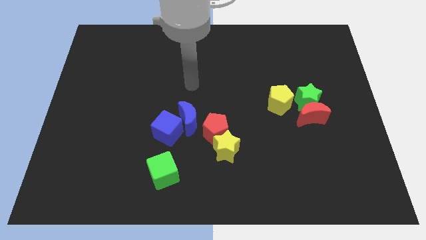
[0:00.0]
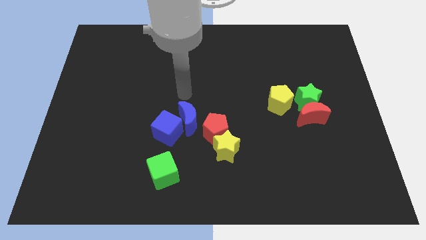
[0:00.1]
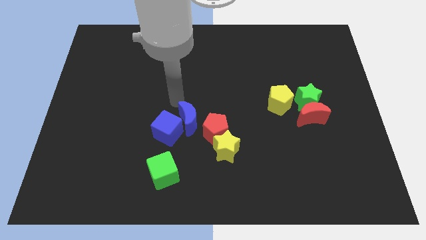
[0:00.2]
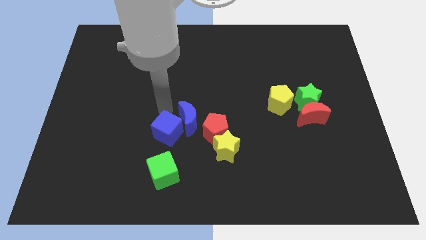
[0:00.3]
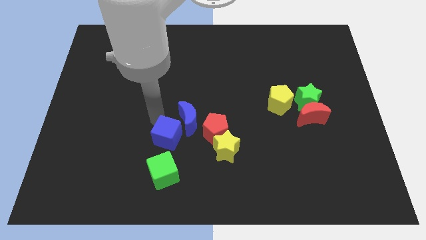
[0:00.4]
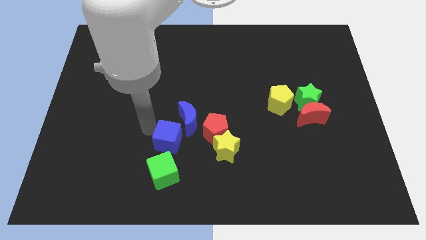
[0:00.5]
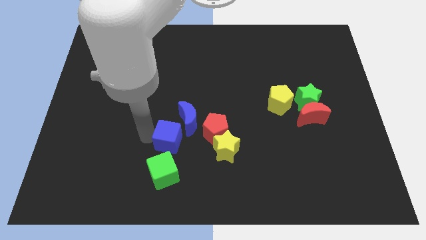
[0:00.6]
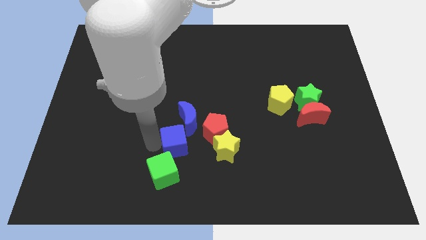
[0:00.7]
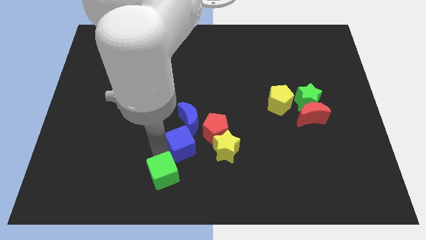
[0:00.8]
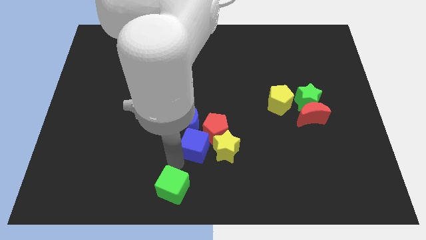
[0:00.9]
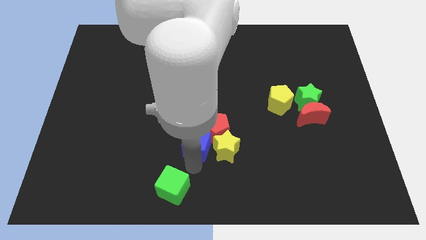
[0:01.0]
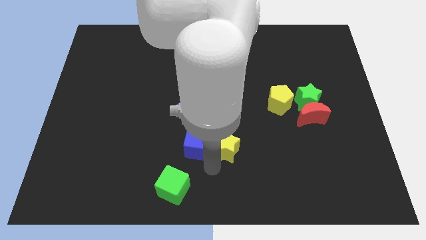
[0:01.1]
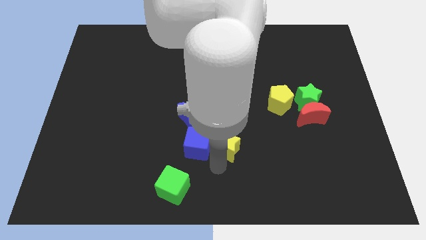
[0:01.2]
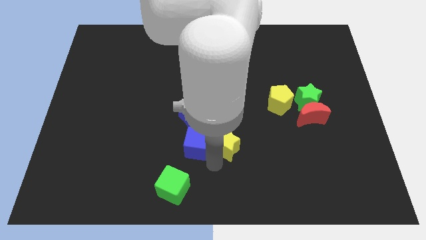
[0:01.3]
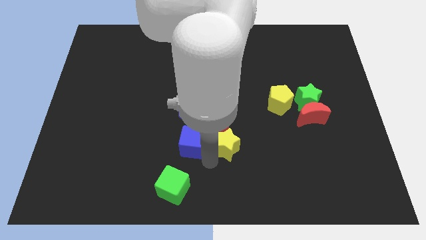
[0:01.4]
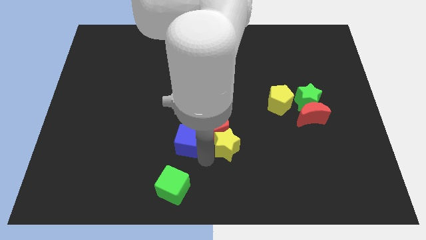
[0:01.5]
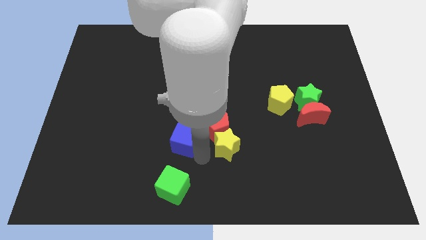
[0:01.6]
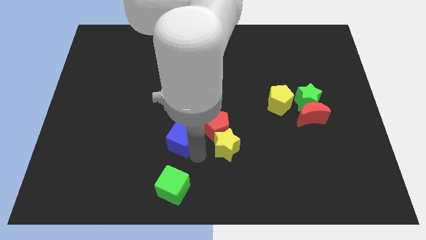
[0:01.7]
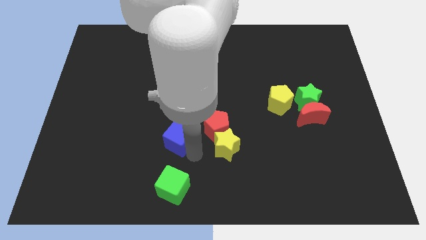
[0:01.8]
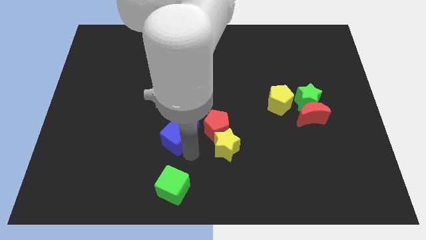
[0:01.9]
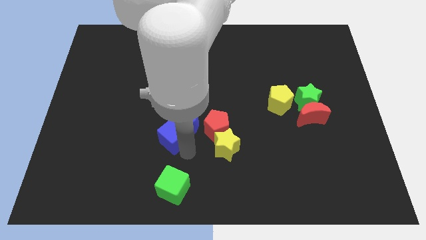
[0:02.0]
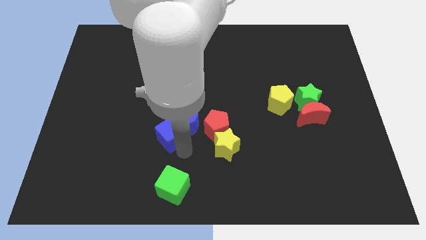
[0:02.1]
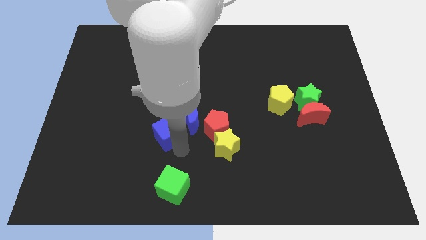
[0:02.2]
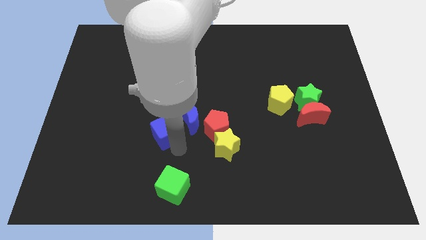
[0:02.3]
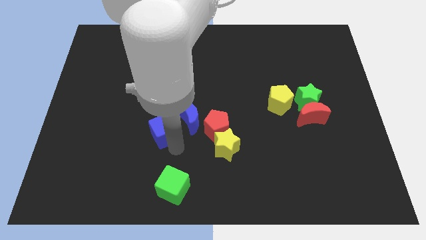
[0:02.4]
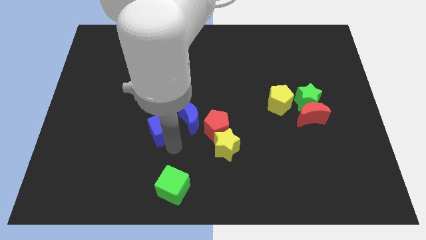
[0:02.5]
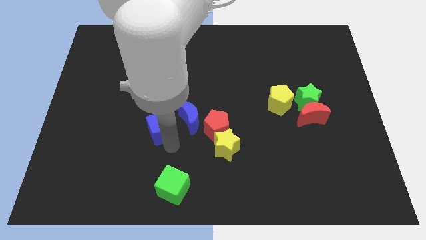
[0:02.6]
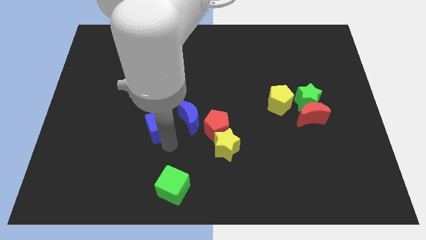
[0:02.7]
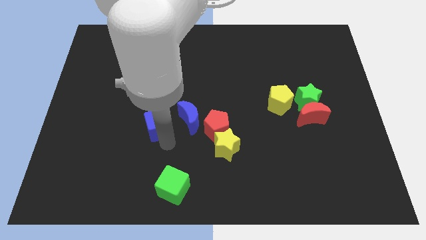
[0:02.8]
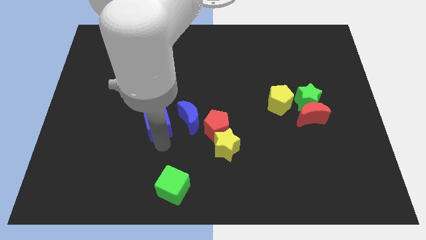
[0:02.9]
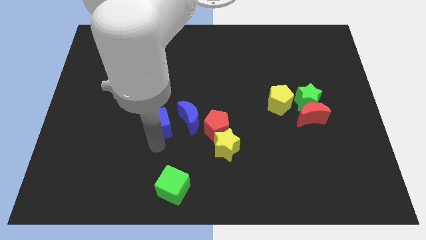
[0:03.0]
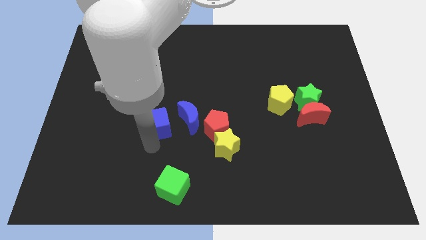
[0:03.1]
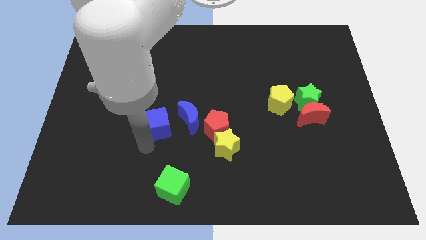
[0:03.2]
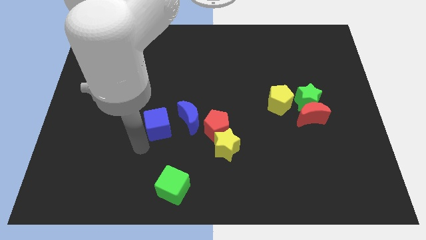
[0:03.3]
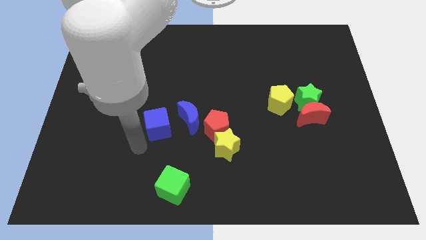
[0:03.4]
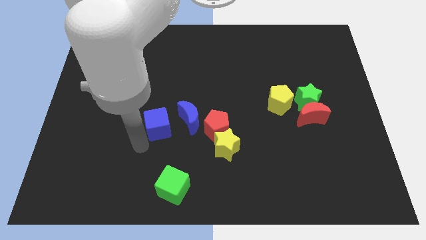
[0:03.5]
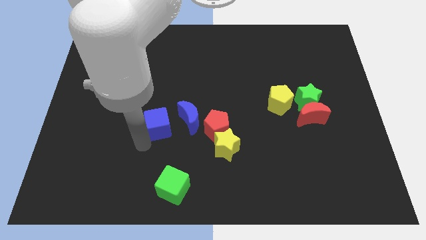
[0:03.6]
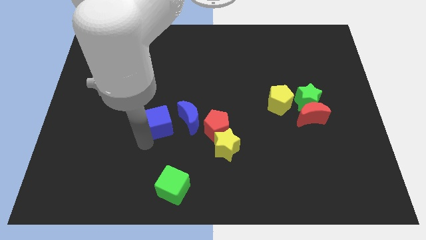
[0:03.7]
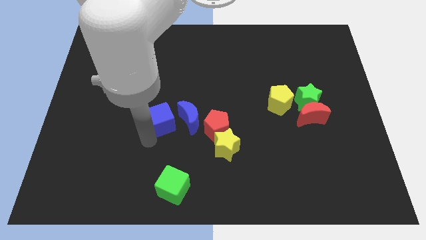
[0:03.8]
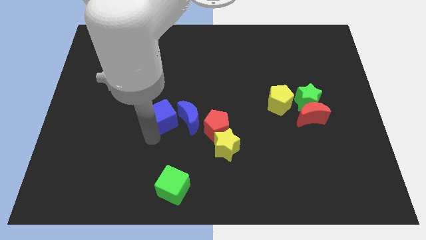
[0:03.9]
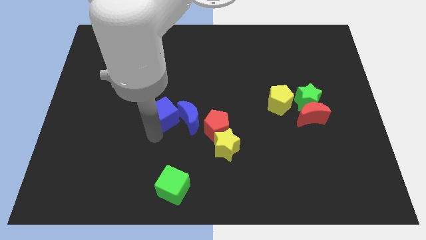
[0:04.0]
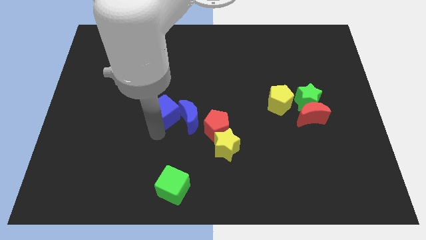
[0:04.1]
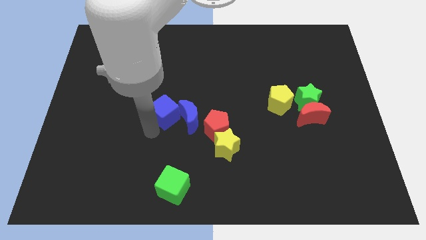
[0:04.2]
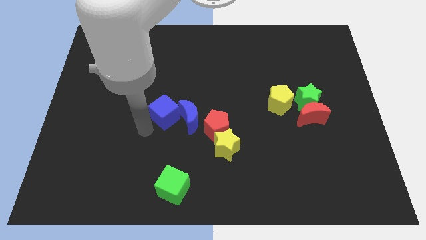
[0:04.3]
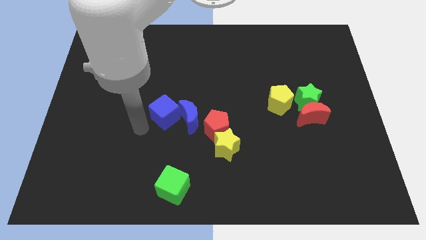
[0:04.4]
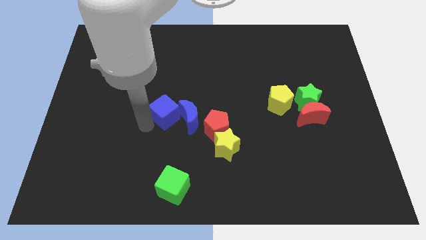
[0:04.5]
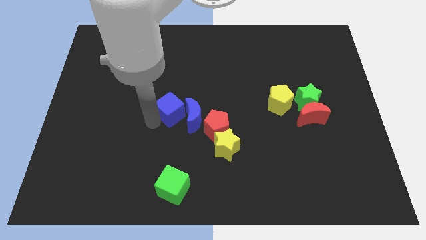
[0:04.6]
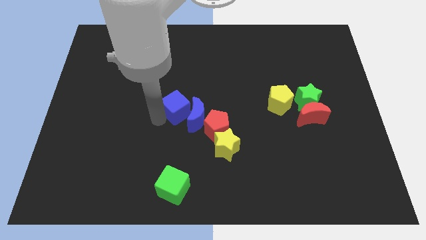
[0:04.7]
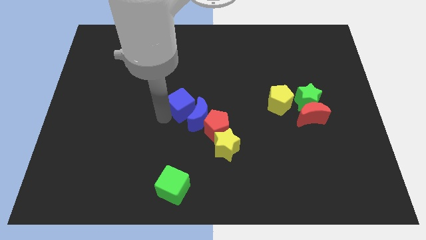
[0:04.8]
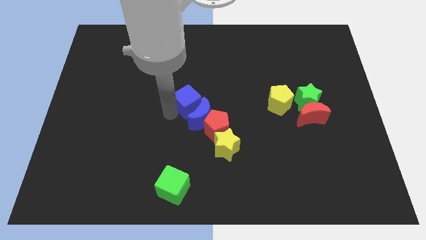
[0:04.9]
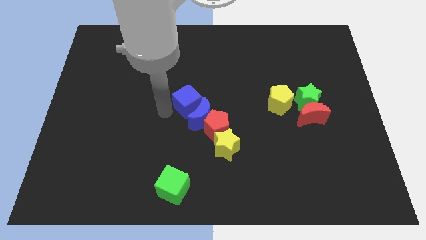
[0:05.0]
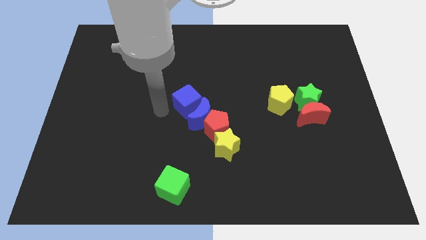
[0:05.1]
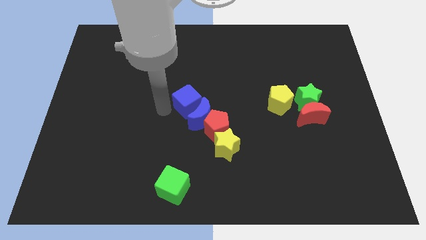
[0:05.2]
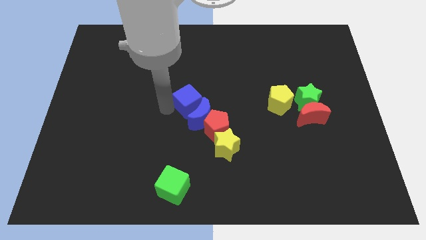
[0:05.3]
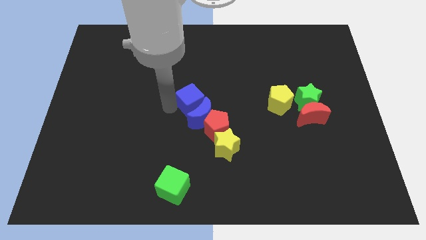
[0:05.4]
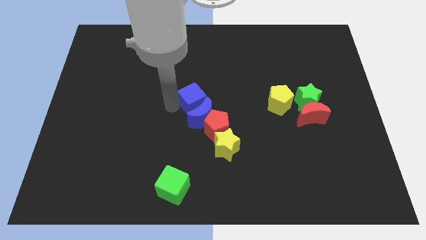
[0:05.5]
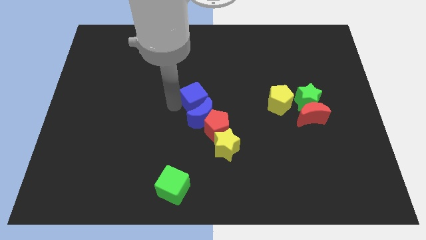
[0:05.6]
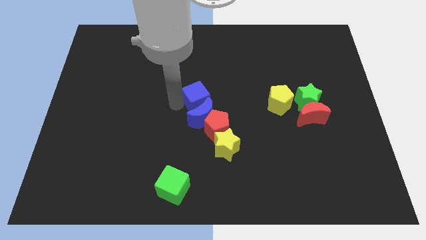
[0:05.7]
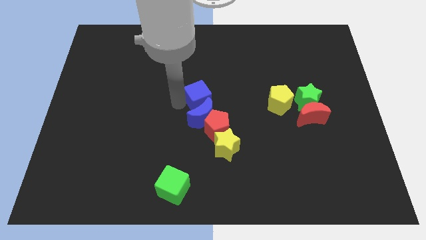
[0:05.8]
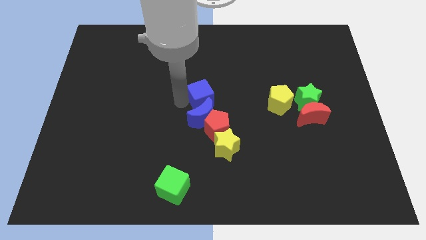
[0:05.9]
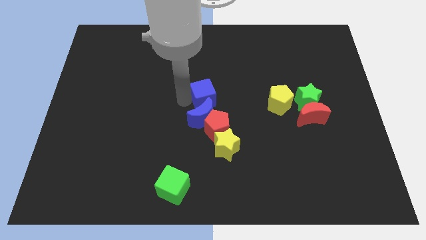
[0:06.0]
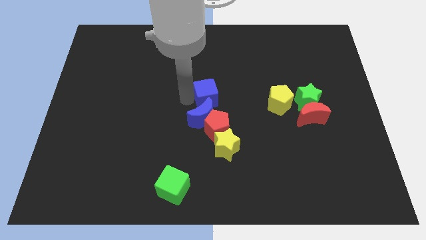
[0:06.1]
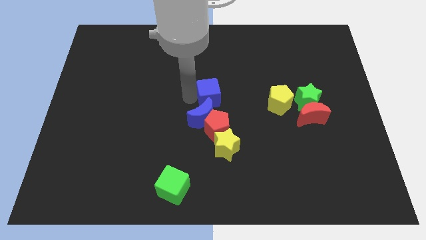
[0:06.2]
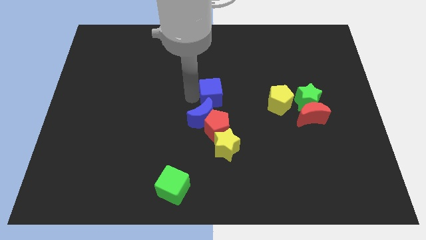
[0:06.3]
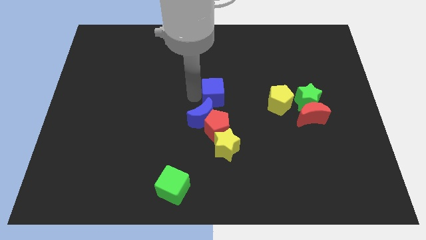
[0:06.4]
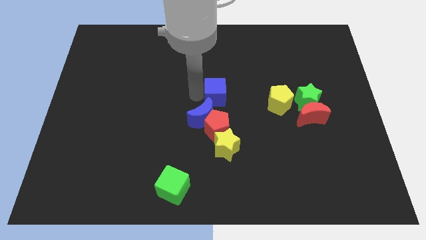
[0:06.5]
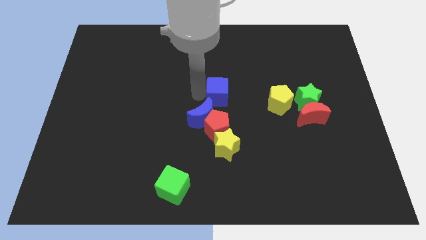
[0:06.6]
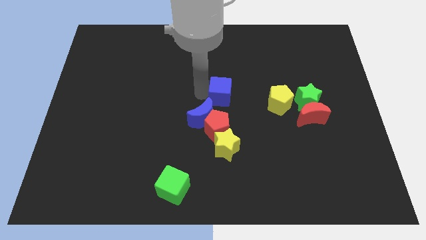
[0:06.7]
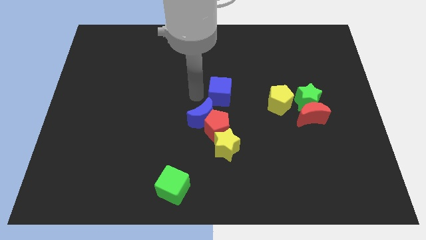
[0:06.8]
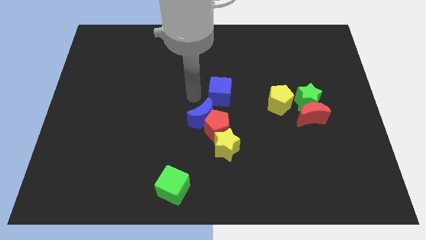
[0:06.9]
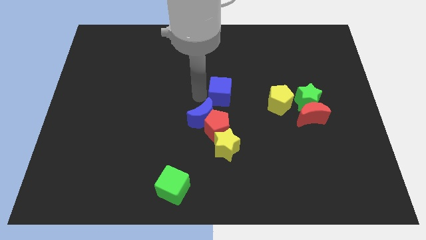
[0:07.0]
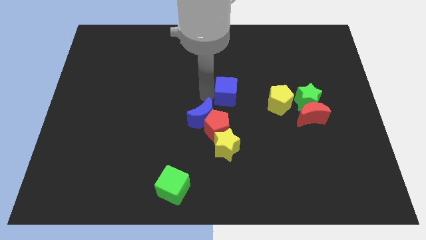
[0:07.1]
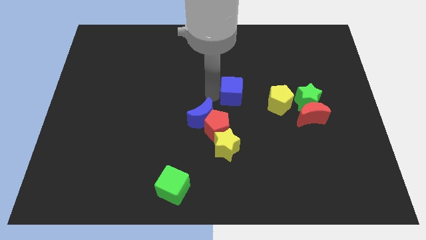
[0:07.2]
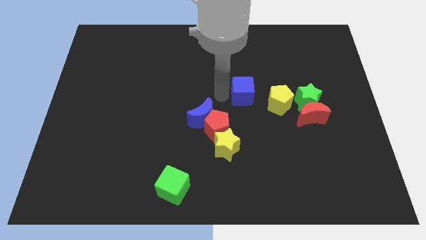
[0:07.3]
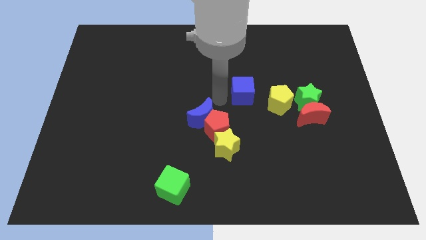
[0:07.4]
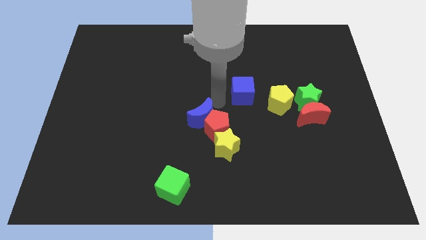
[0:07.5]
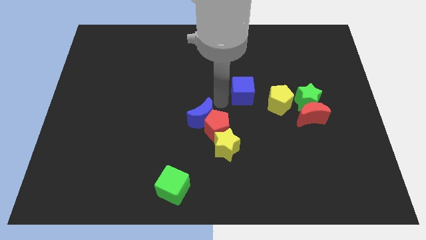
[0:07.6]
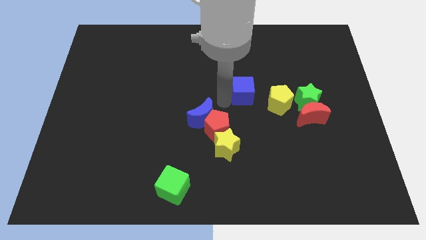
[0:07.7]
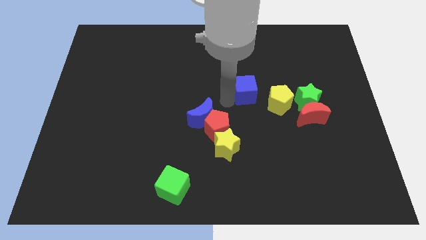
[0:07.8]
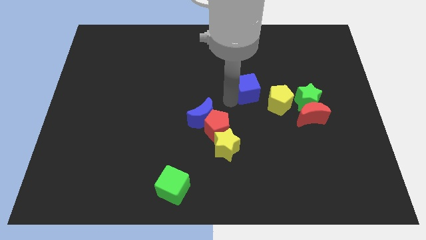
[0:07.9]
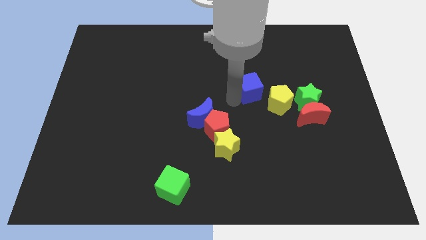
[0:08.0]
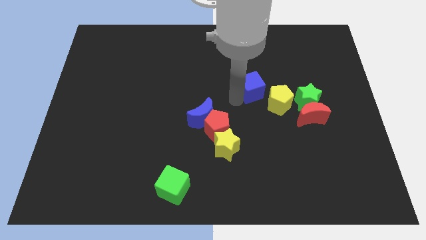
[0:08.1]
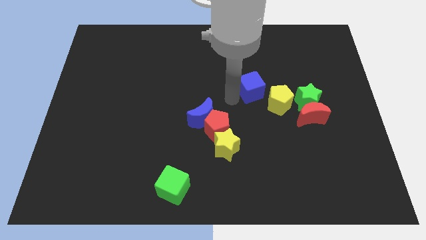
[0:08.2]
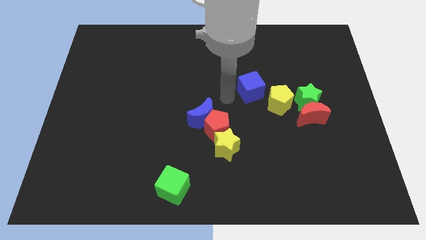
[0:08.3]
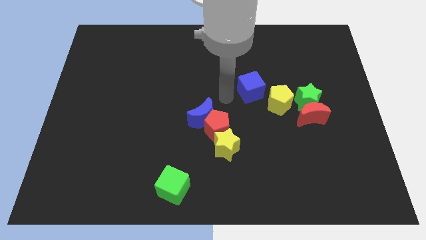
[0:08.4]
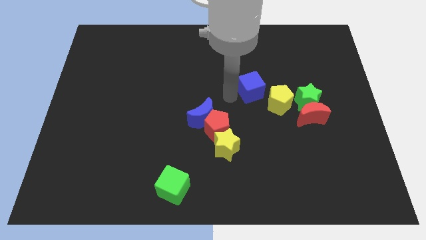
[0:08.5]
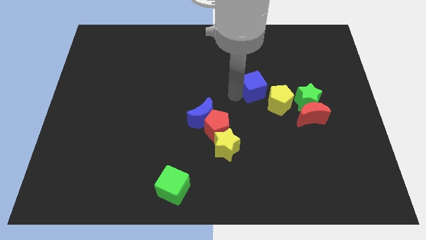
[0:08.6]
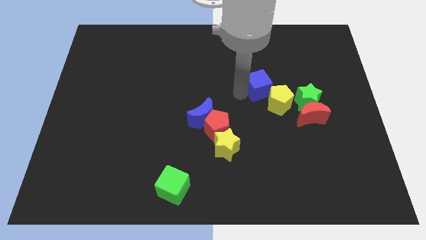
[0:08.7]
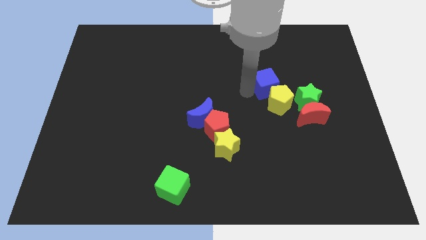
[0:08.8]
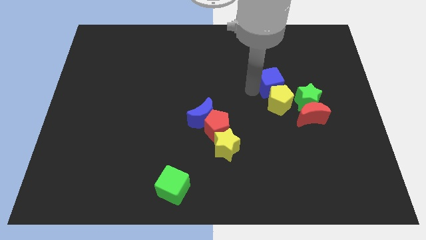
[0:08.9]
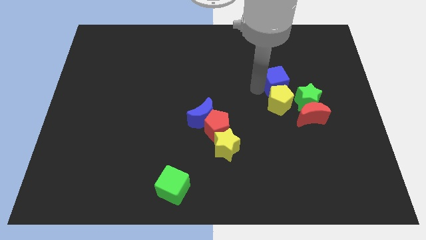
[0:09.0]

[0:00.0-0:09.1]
slide the blue cube to the top right of the yellow pentagon
